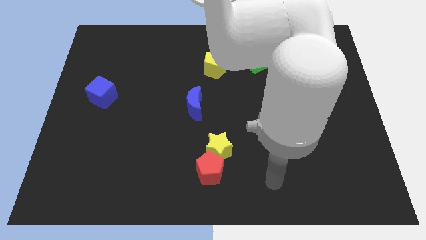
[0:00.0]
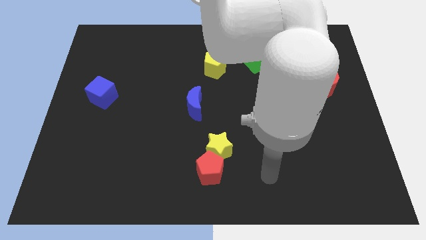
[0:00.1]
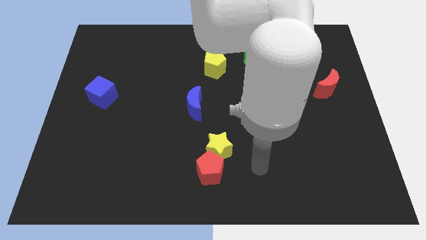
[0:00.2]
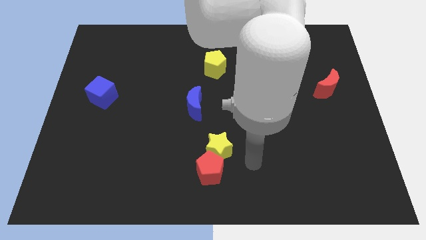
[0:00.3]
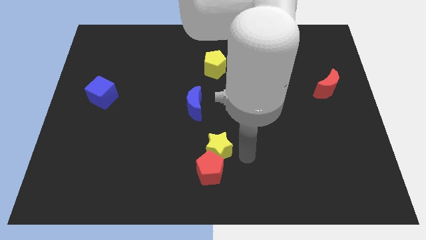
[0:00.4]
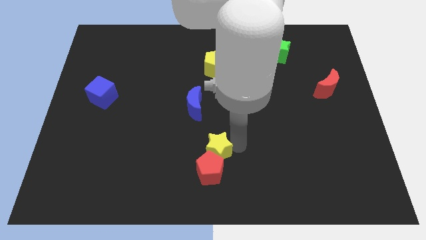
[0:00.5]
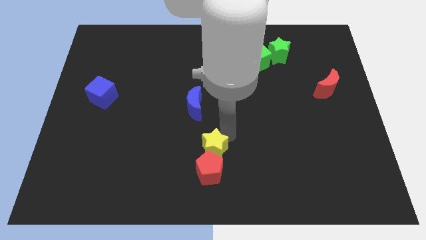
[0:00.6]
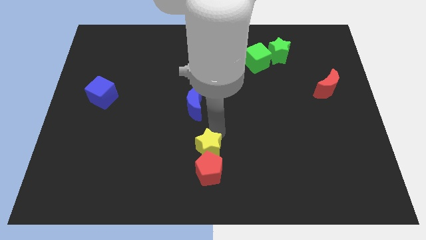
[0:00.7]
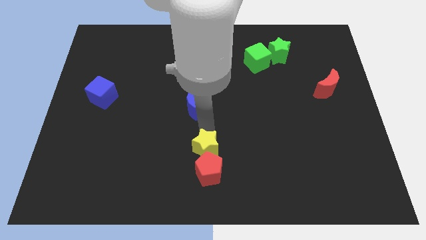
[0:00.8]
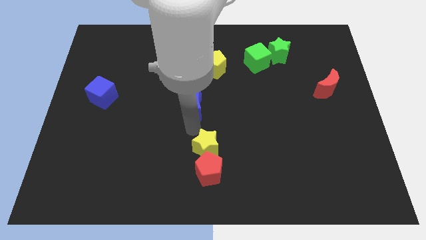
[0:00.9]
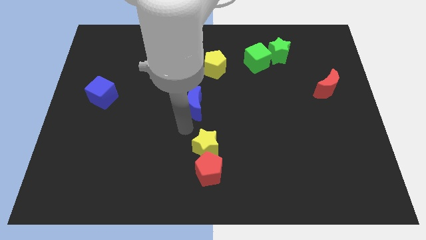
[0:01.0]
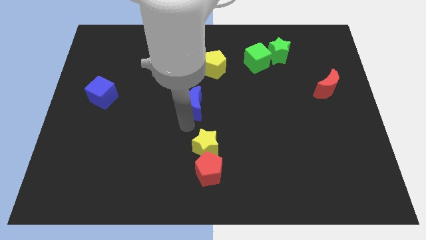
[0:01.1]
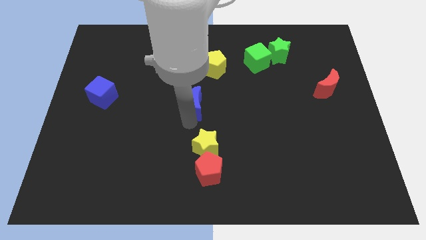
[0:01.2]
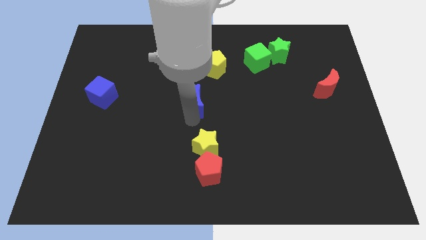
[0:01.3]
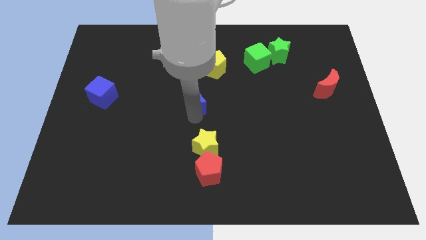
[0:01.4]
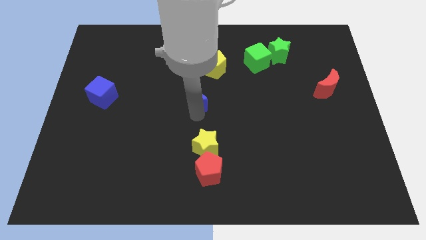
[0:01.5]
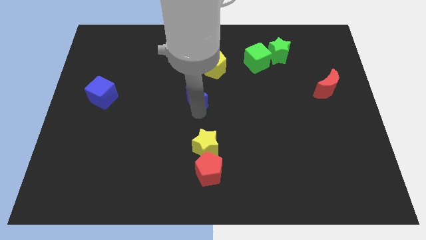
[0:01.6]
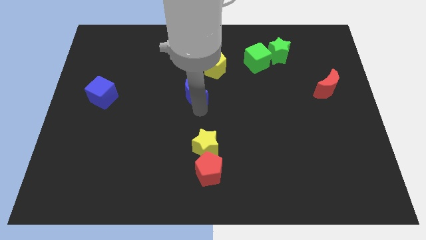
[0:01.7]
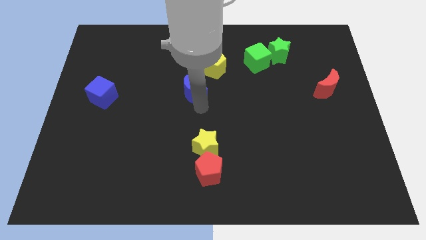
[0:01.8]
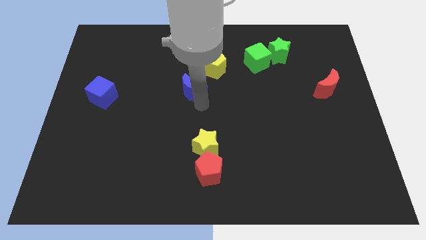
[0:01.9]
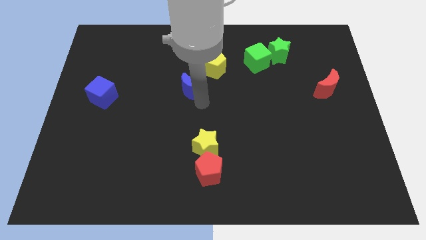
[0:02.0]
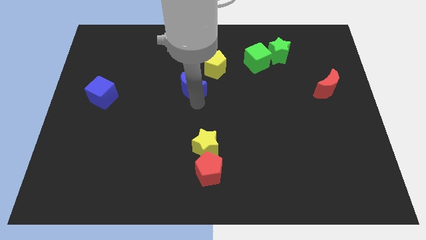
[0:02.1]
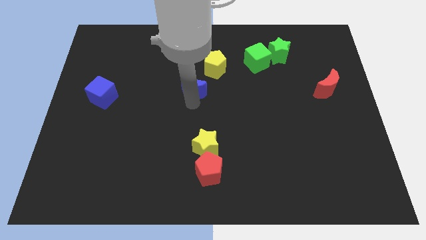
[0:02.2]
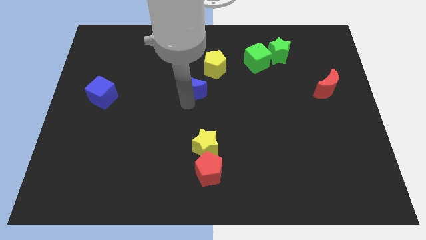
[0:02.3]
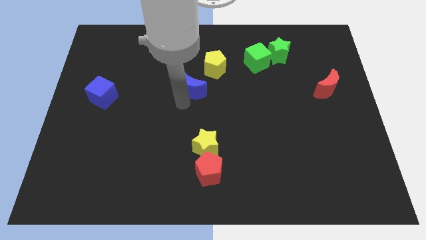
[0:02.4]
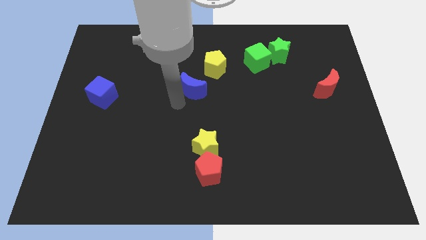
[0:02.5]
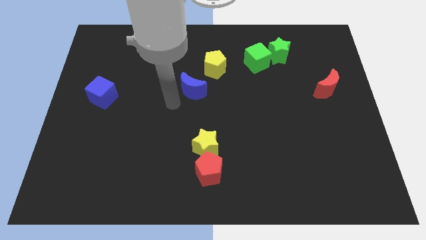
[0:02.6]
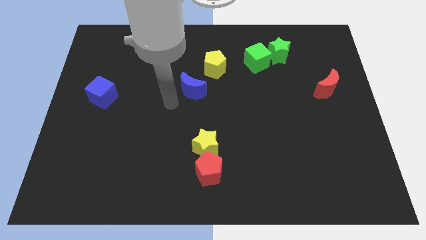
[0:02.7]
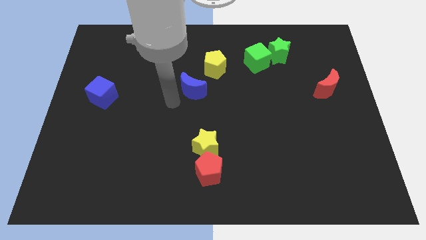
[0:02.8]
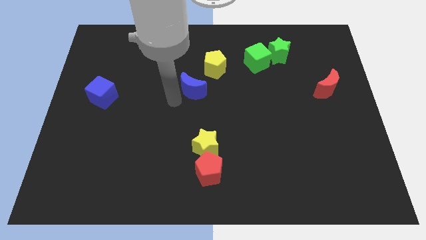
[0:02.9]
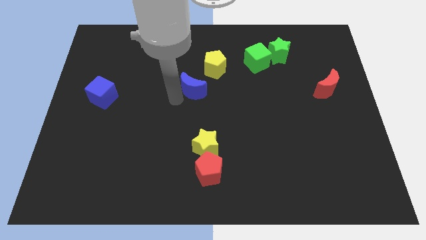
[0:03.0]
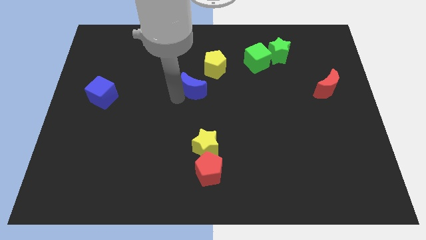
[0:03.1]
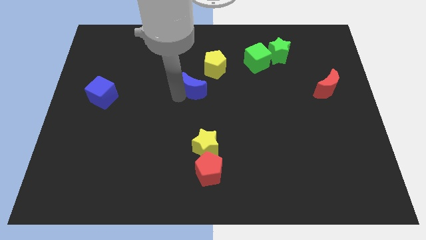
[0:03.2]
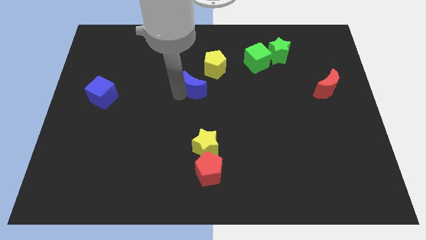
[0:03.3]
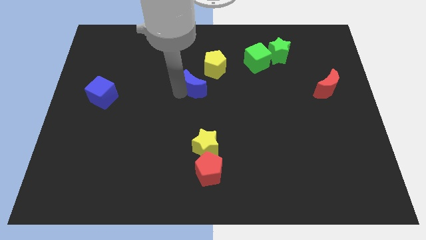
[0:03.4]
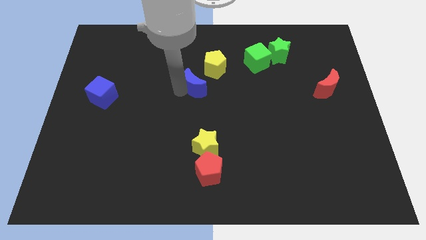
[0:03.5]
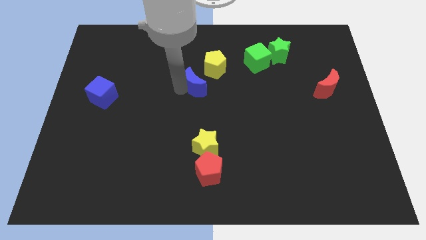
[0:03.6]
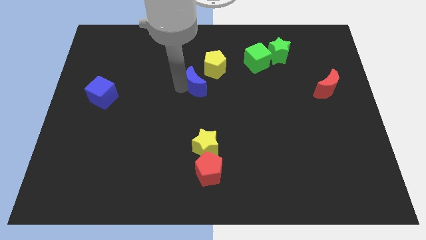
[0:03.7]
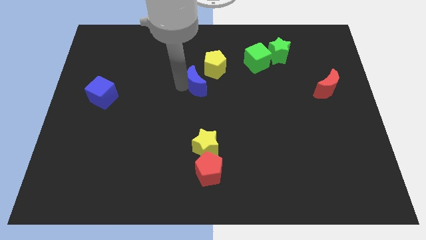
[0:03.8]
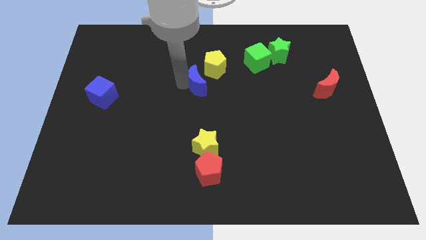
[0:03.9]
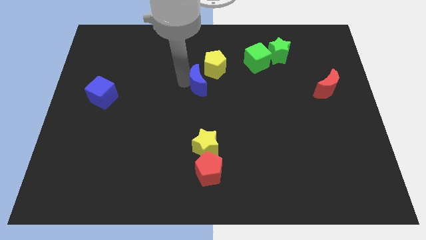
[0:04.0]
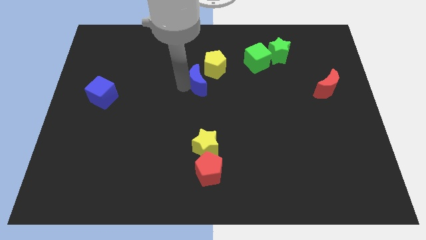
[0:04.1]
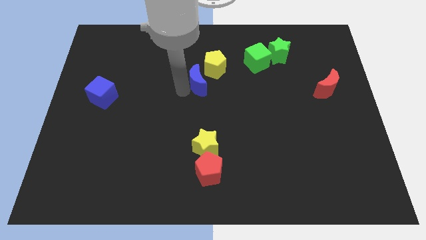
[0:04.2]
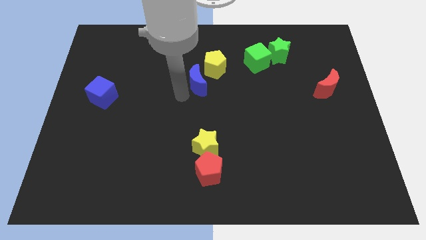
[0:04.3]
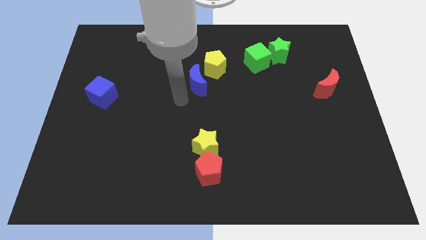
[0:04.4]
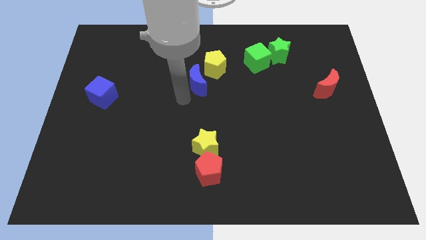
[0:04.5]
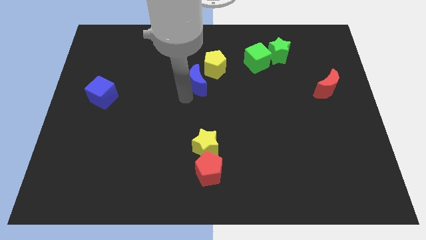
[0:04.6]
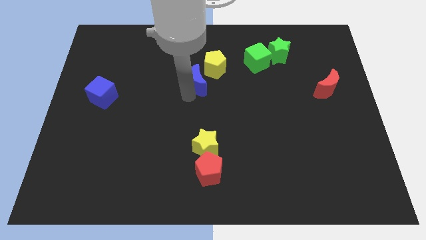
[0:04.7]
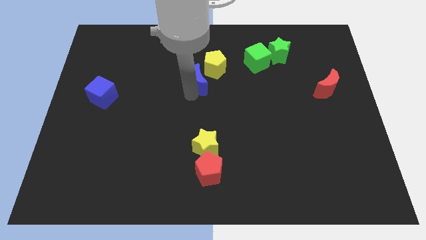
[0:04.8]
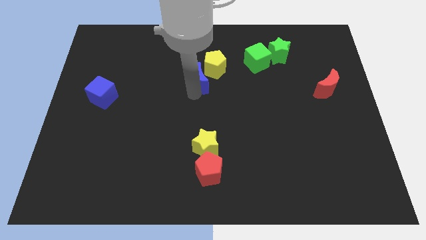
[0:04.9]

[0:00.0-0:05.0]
move the blue moon towards the yellow pentagon

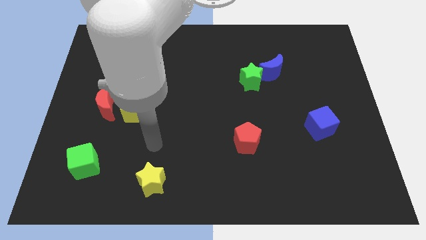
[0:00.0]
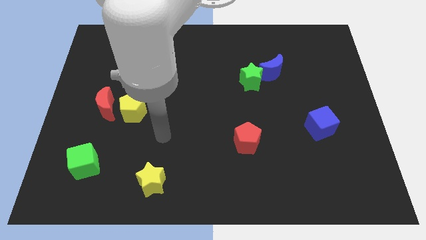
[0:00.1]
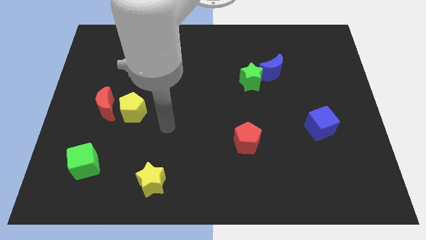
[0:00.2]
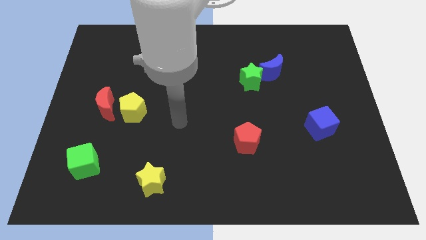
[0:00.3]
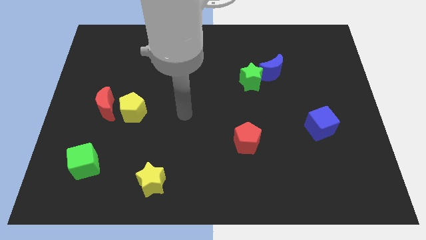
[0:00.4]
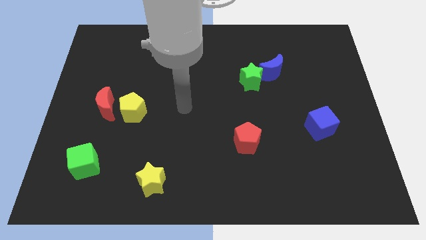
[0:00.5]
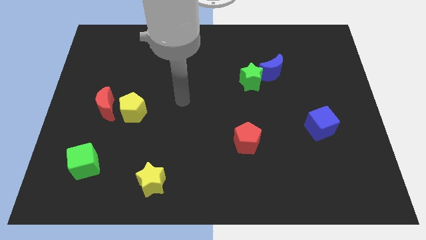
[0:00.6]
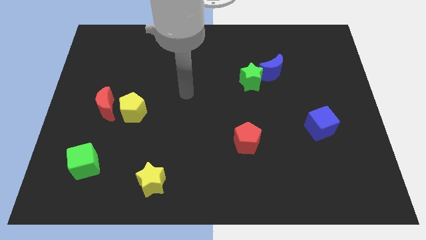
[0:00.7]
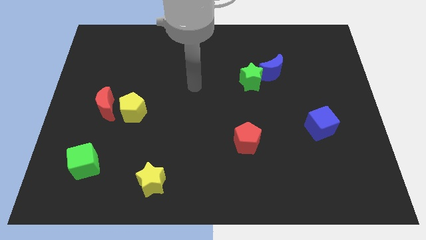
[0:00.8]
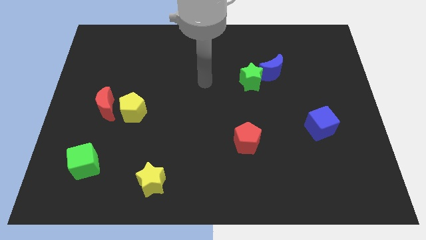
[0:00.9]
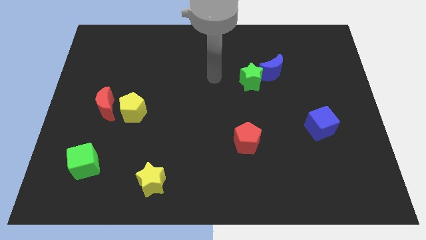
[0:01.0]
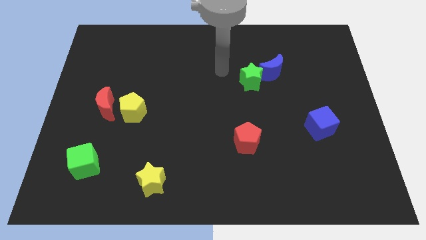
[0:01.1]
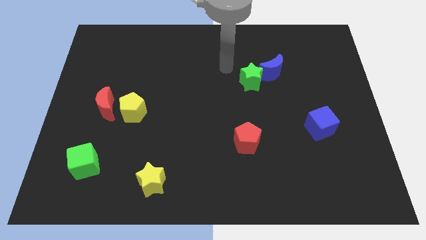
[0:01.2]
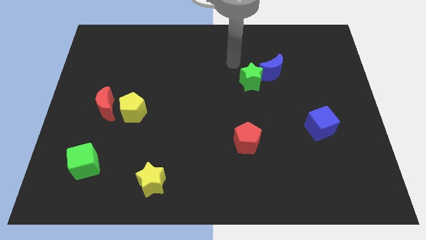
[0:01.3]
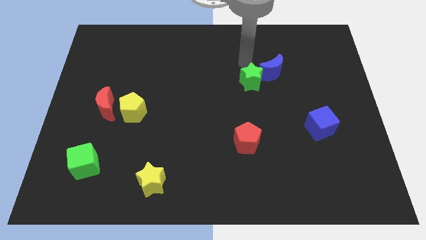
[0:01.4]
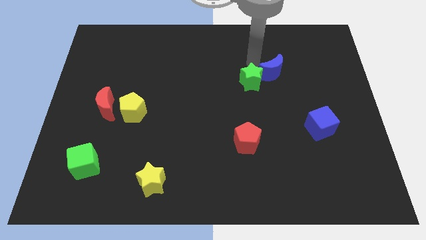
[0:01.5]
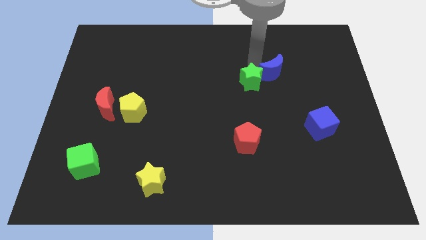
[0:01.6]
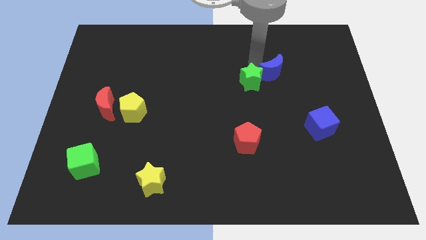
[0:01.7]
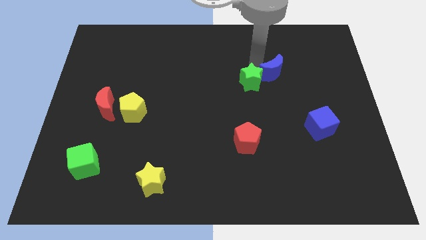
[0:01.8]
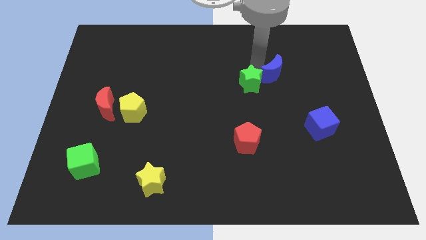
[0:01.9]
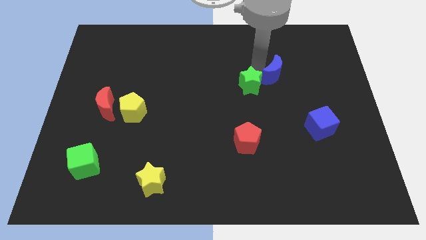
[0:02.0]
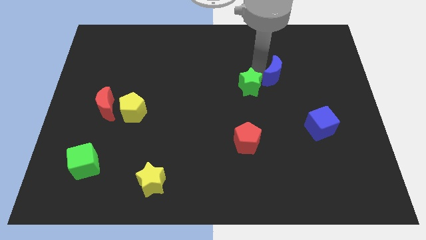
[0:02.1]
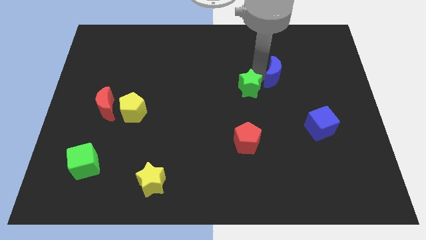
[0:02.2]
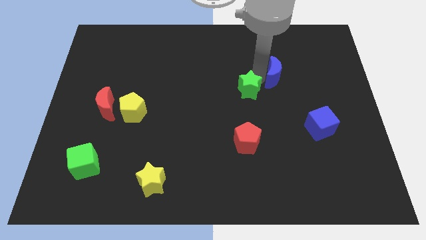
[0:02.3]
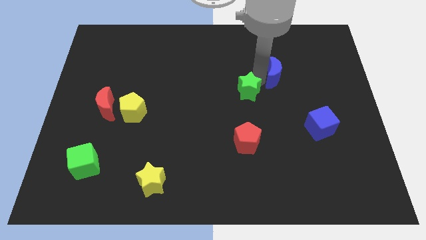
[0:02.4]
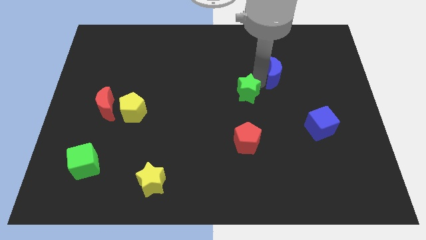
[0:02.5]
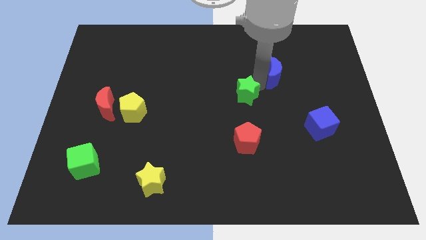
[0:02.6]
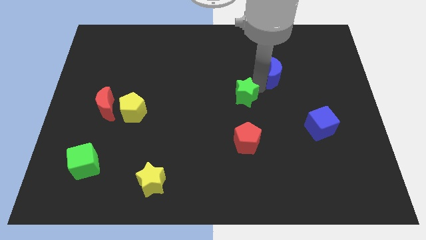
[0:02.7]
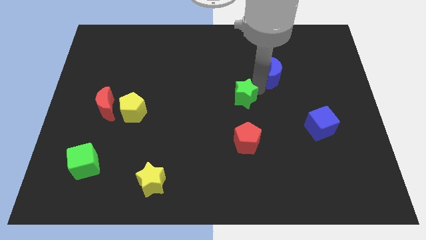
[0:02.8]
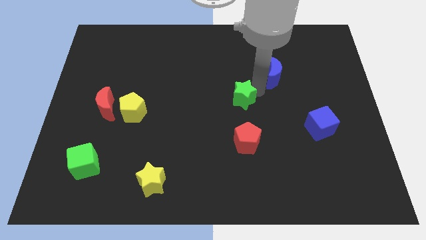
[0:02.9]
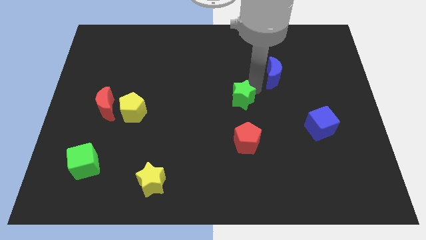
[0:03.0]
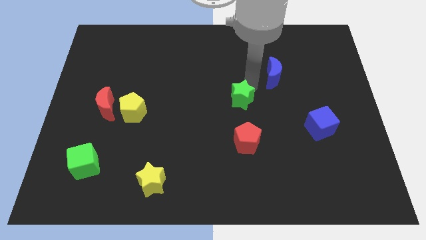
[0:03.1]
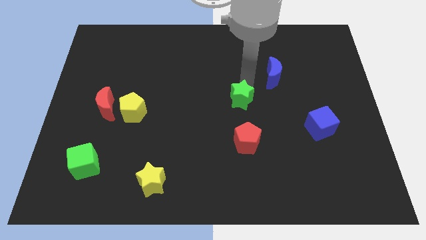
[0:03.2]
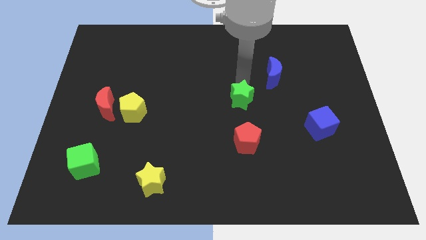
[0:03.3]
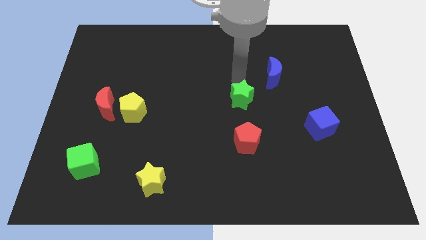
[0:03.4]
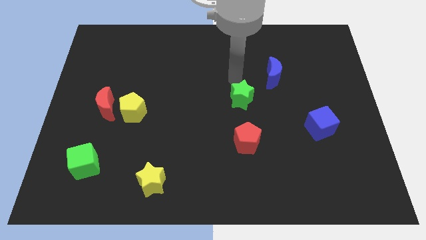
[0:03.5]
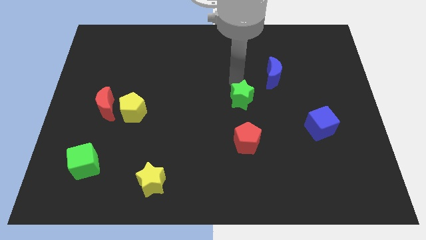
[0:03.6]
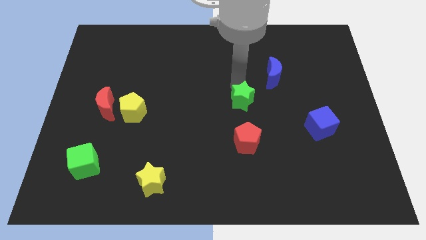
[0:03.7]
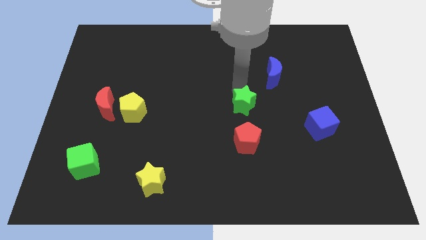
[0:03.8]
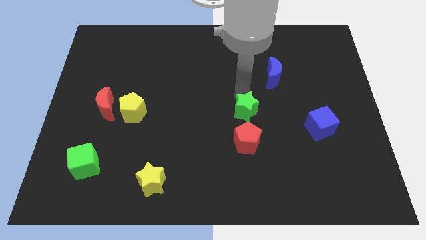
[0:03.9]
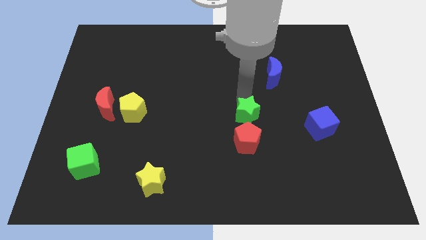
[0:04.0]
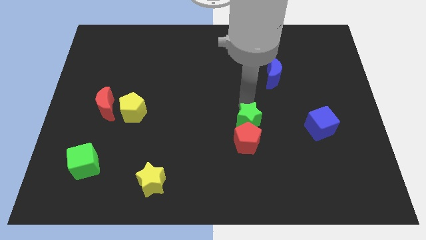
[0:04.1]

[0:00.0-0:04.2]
push the green star close to the red pentagon
